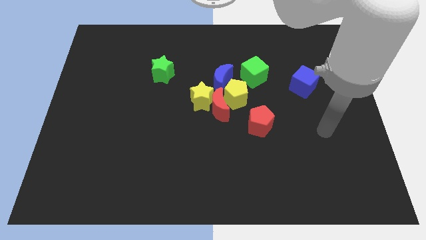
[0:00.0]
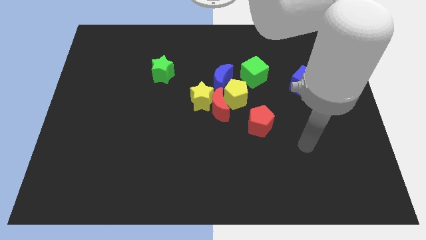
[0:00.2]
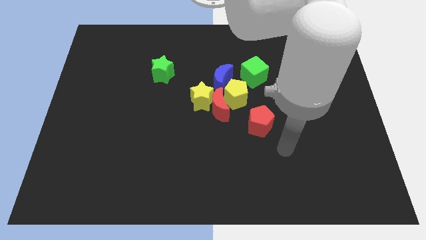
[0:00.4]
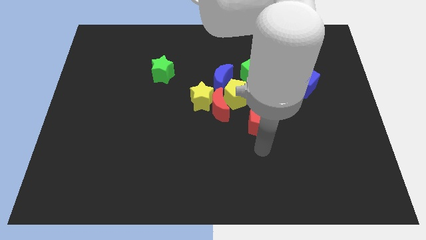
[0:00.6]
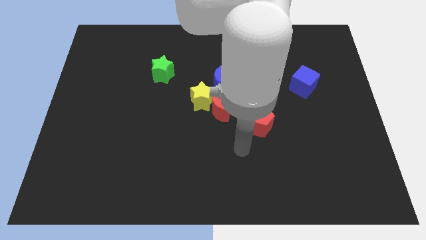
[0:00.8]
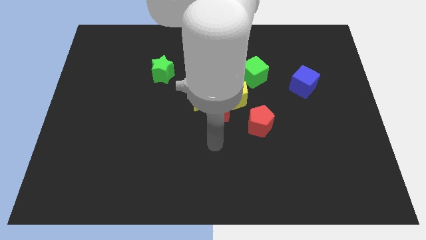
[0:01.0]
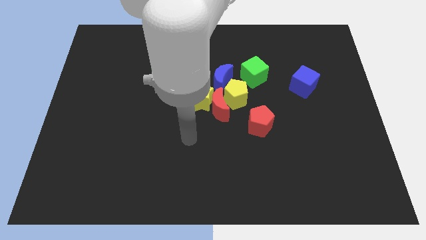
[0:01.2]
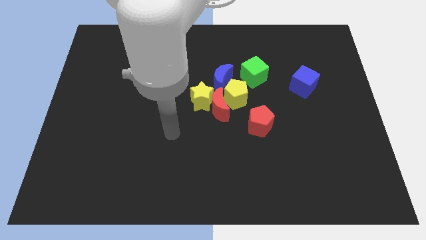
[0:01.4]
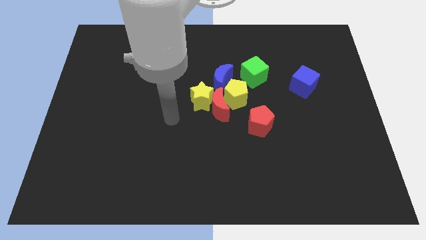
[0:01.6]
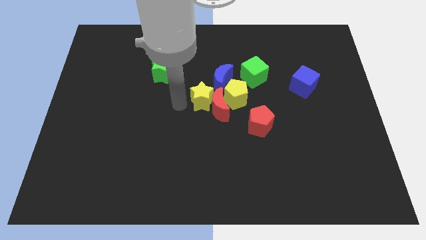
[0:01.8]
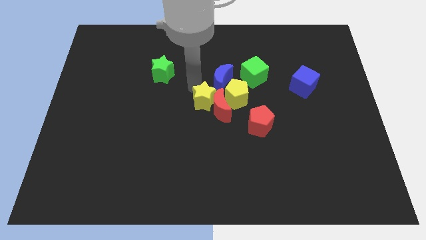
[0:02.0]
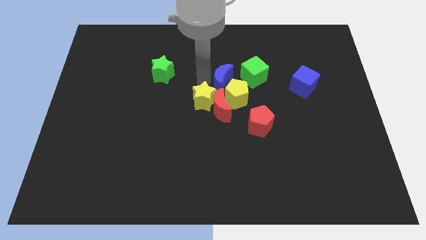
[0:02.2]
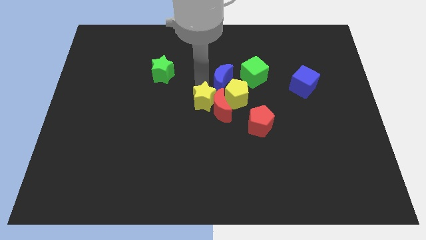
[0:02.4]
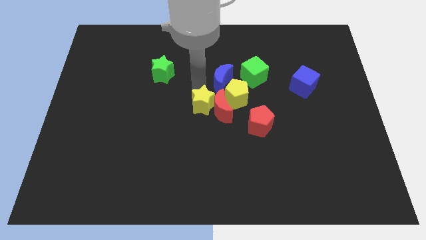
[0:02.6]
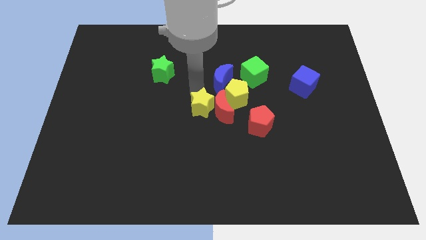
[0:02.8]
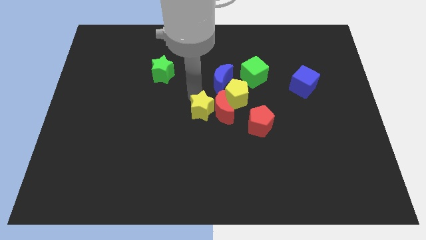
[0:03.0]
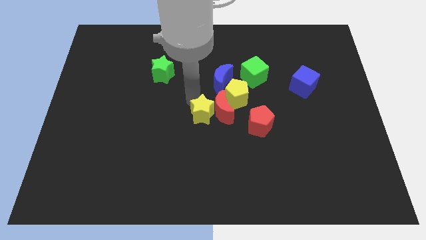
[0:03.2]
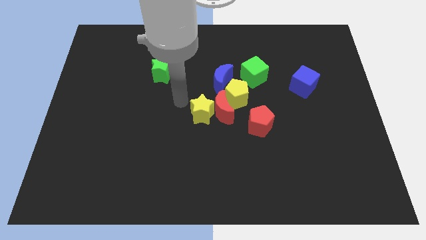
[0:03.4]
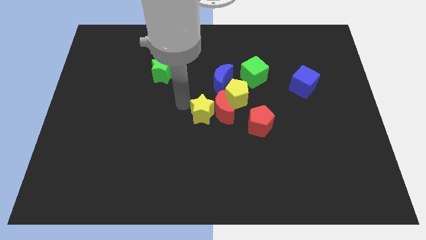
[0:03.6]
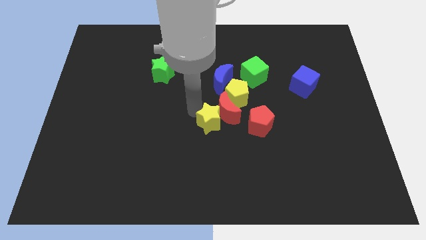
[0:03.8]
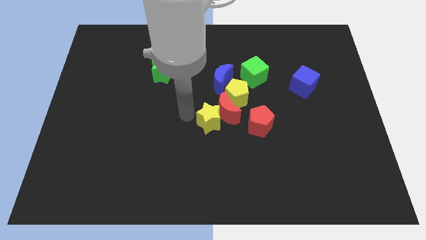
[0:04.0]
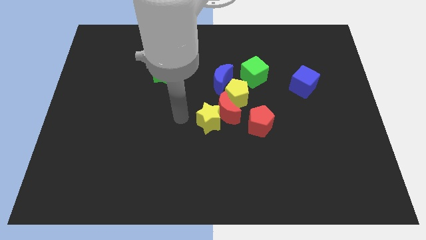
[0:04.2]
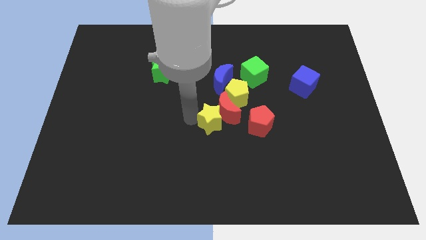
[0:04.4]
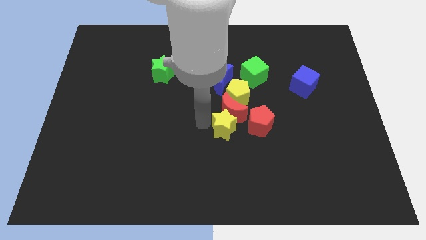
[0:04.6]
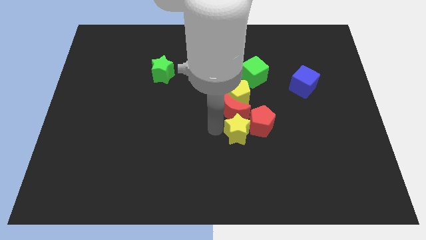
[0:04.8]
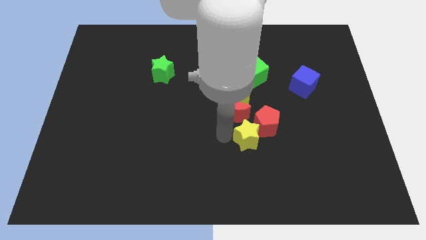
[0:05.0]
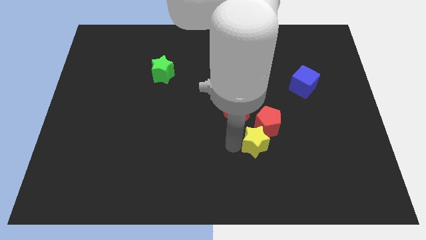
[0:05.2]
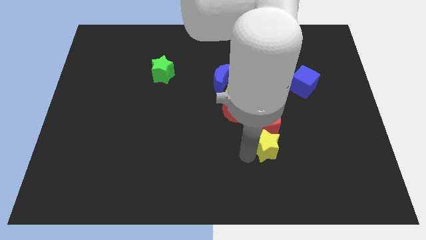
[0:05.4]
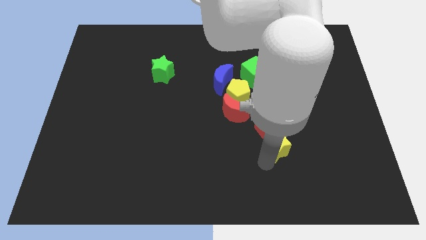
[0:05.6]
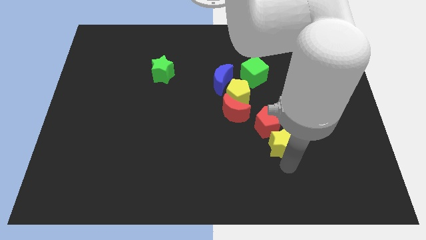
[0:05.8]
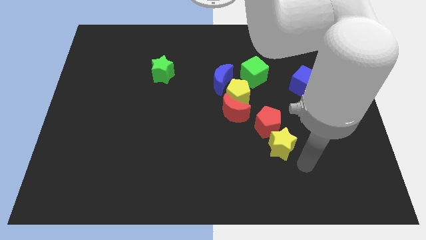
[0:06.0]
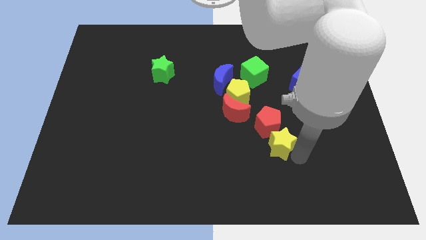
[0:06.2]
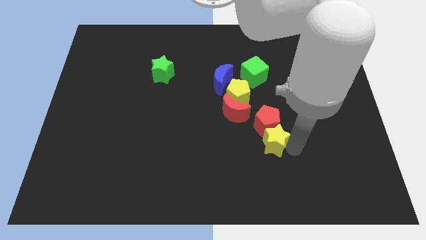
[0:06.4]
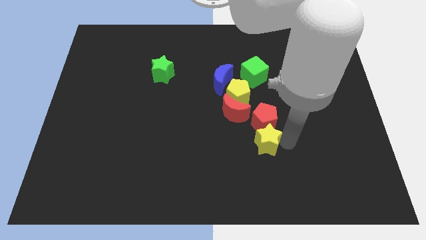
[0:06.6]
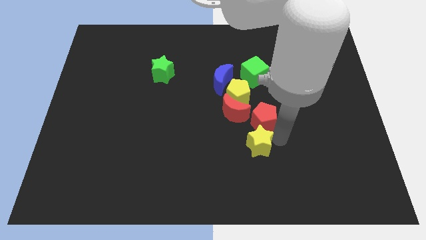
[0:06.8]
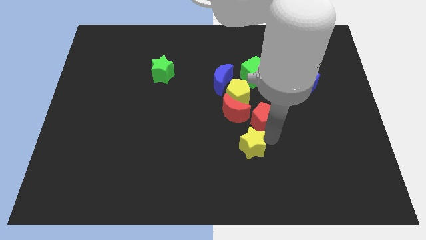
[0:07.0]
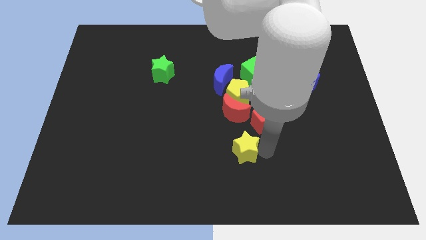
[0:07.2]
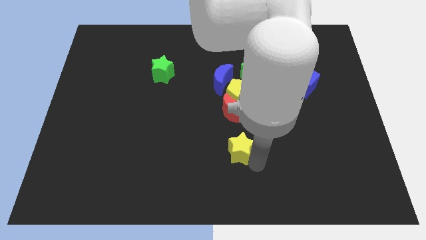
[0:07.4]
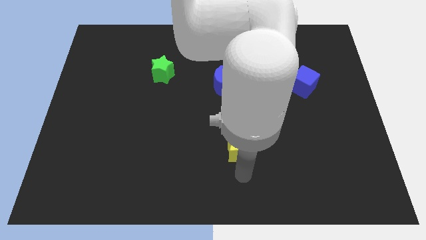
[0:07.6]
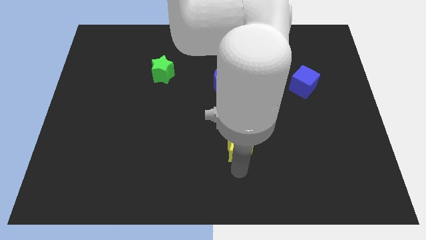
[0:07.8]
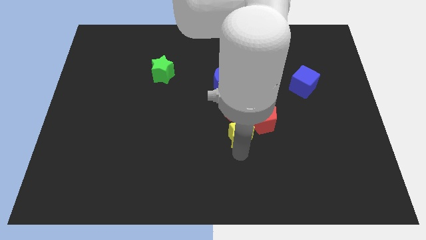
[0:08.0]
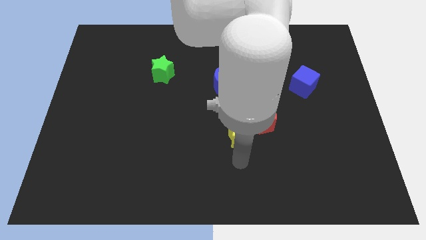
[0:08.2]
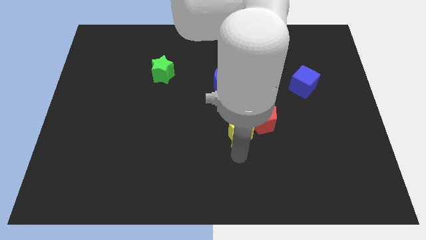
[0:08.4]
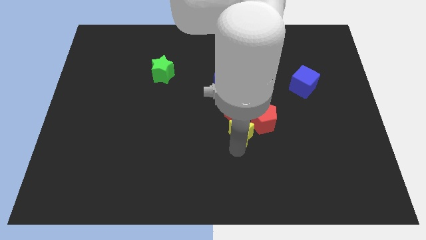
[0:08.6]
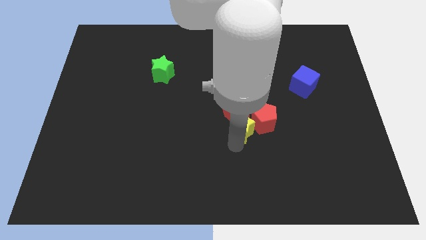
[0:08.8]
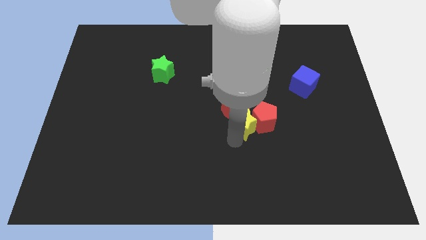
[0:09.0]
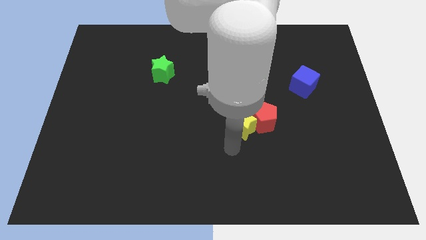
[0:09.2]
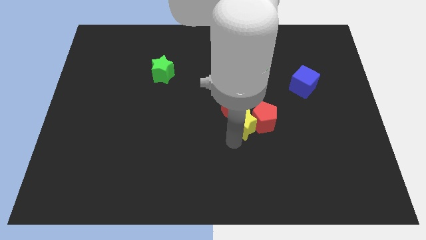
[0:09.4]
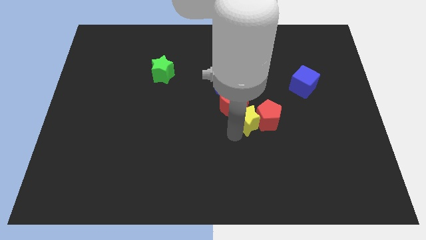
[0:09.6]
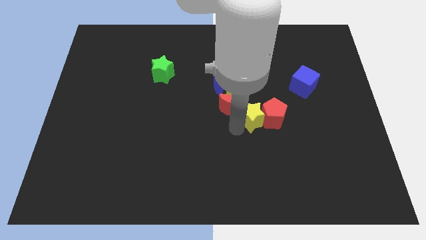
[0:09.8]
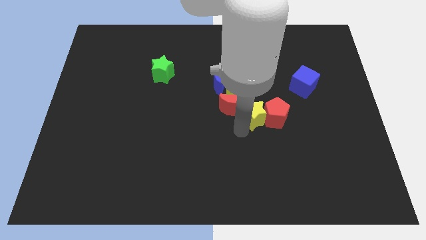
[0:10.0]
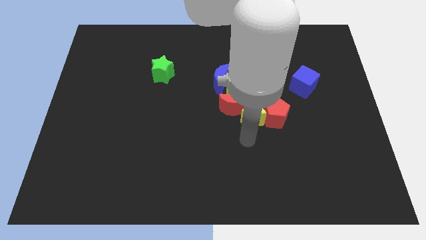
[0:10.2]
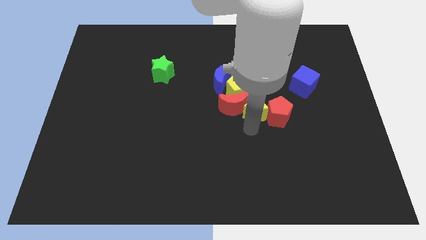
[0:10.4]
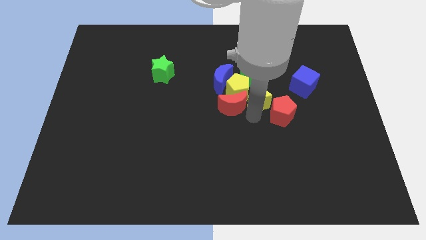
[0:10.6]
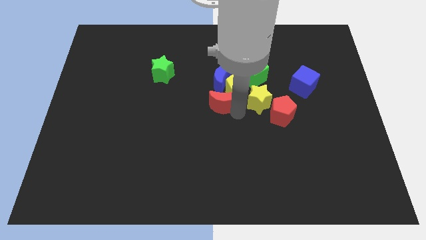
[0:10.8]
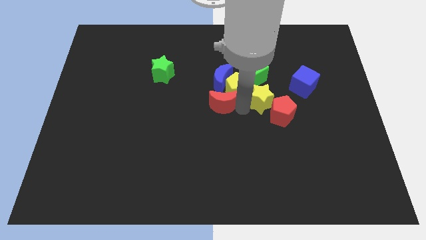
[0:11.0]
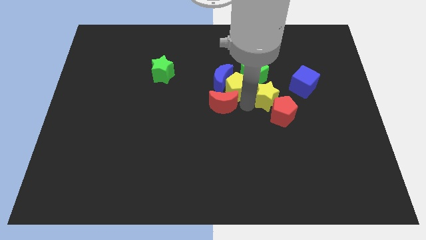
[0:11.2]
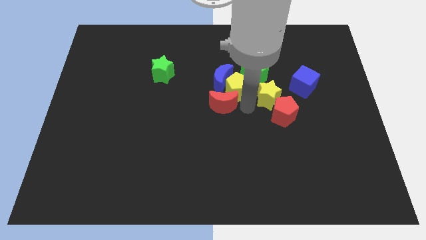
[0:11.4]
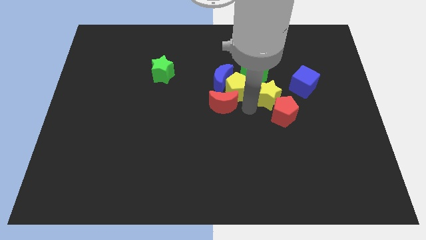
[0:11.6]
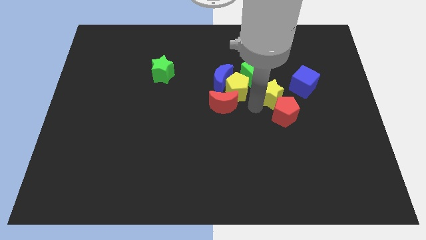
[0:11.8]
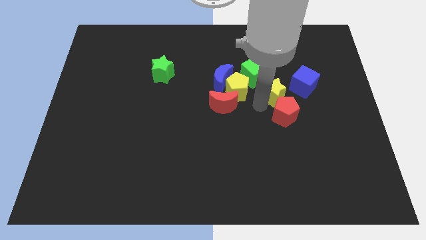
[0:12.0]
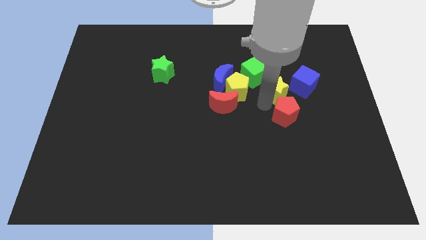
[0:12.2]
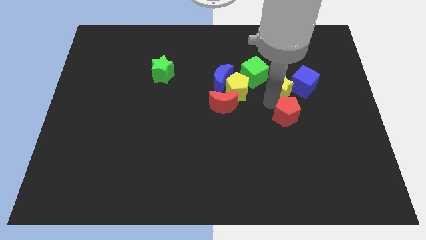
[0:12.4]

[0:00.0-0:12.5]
slide the yellow star close to the blue cube

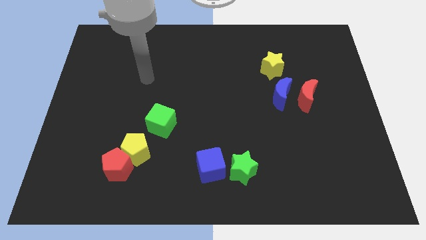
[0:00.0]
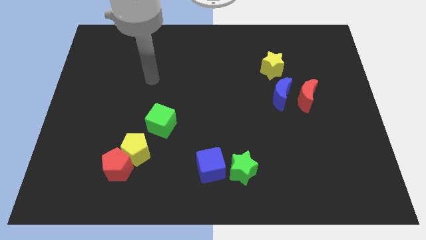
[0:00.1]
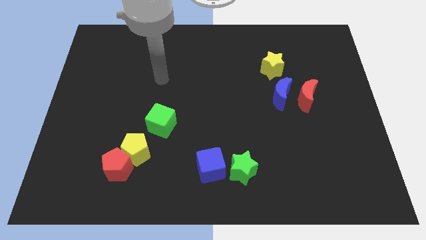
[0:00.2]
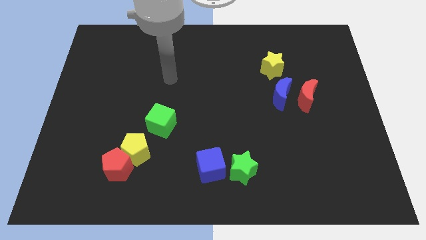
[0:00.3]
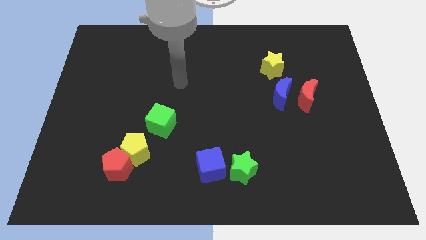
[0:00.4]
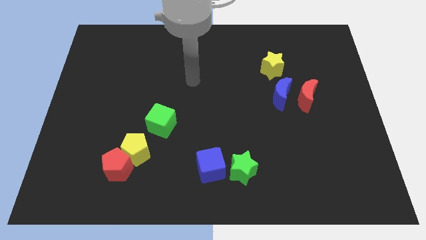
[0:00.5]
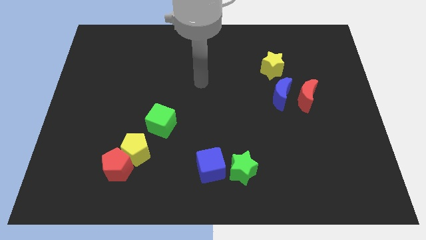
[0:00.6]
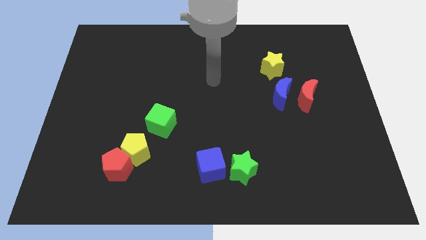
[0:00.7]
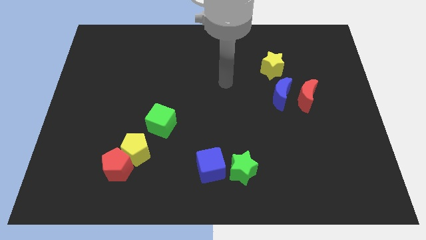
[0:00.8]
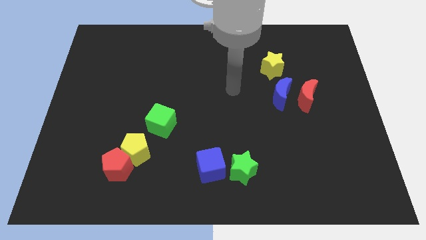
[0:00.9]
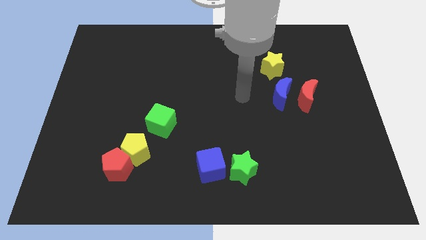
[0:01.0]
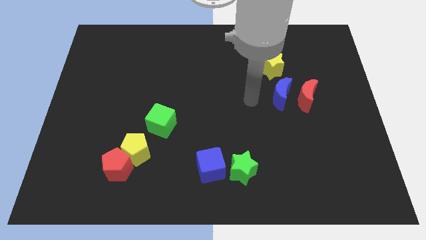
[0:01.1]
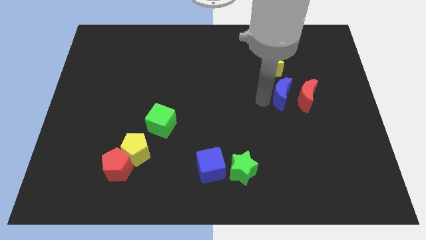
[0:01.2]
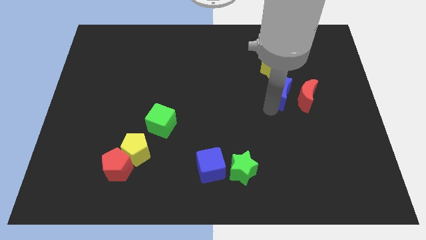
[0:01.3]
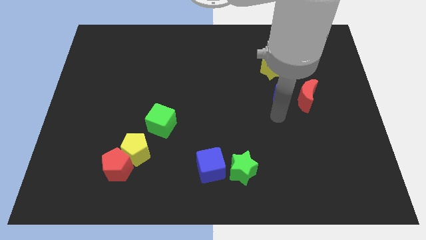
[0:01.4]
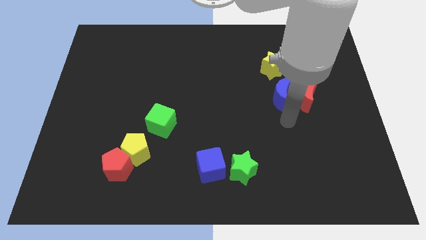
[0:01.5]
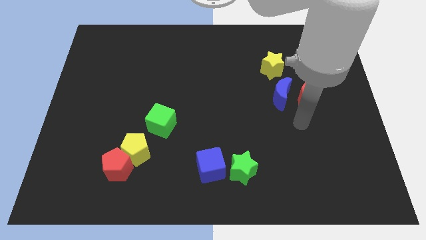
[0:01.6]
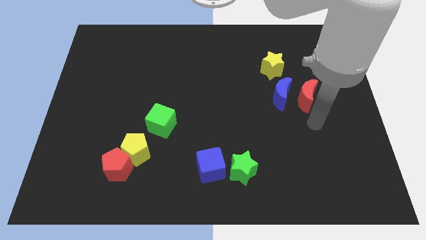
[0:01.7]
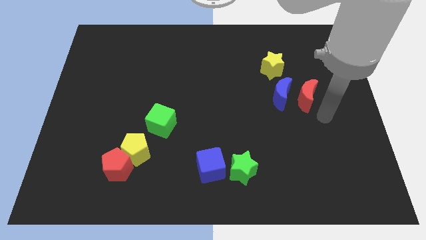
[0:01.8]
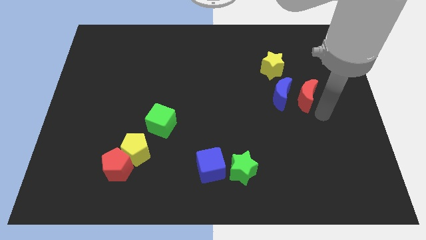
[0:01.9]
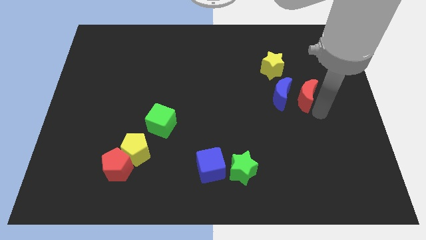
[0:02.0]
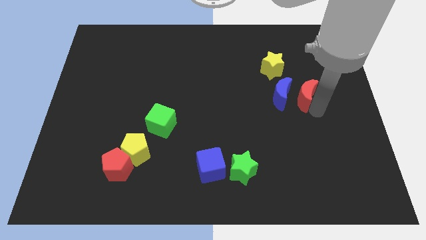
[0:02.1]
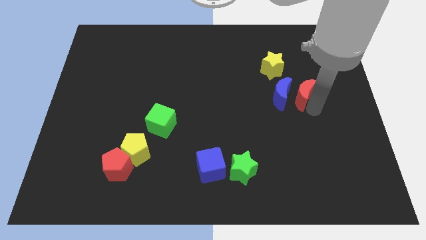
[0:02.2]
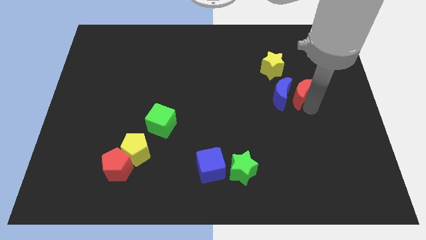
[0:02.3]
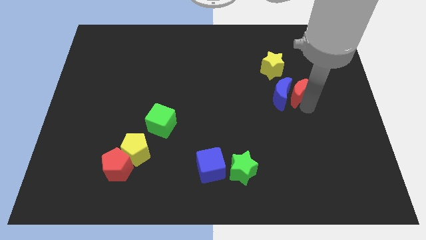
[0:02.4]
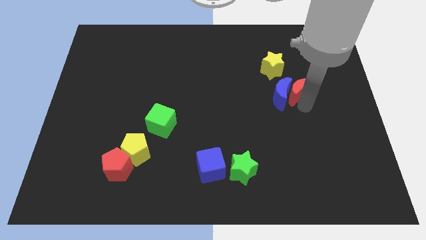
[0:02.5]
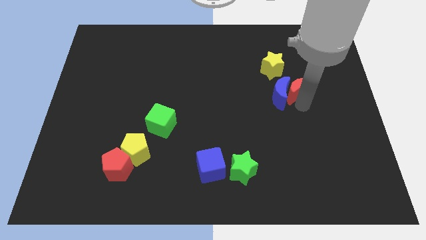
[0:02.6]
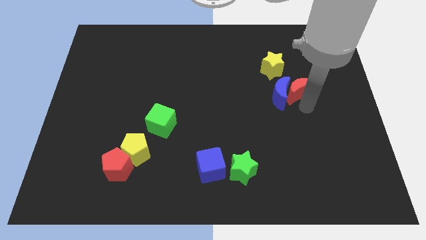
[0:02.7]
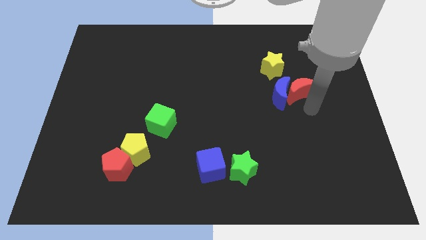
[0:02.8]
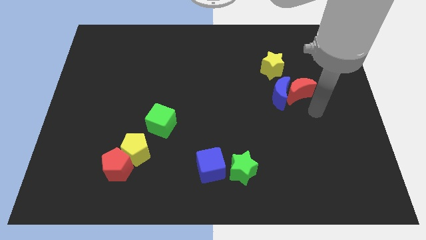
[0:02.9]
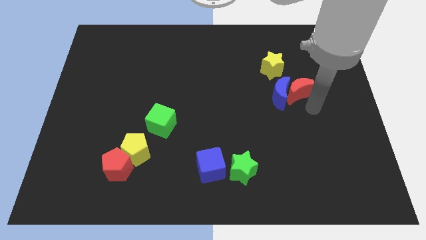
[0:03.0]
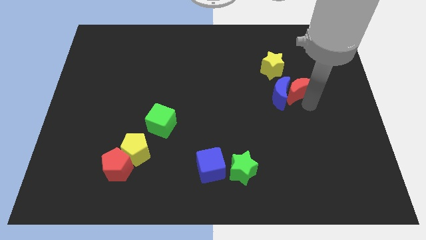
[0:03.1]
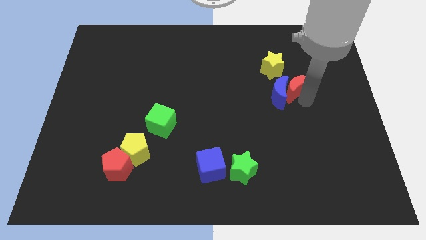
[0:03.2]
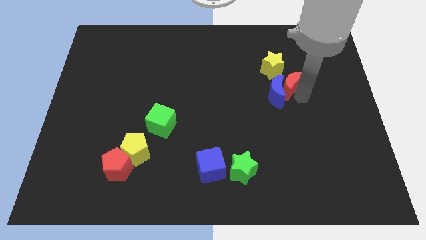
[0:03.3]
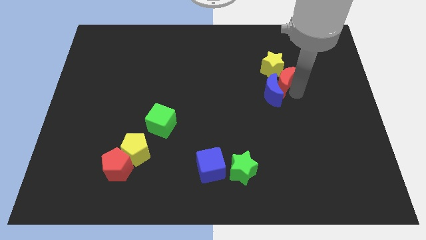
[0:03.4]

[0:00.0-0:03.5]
move the red moon close to the yellow star
